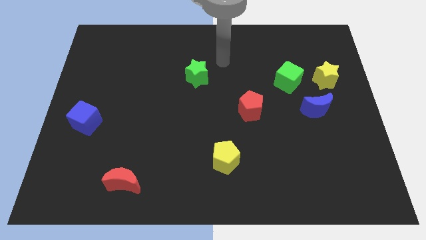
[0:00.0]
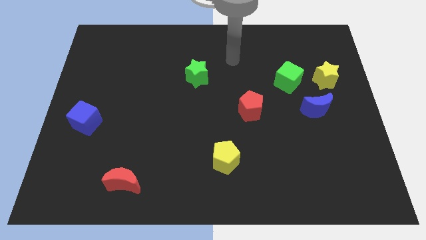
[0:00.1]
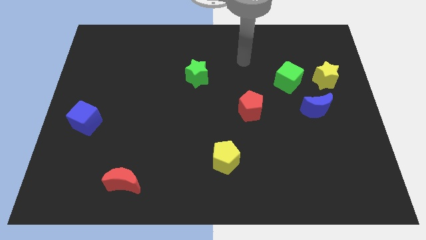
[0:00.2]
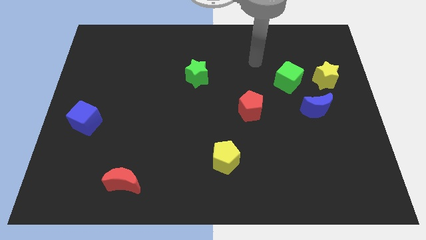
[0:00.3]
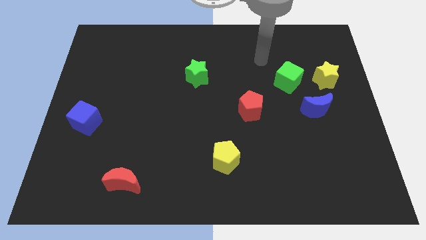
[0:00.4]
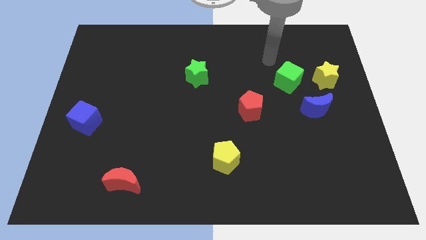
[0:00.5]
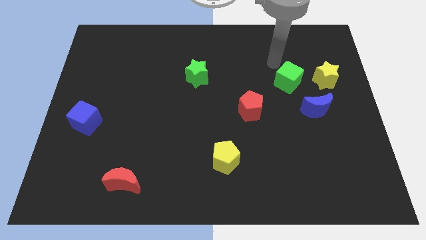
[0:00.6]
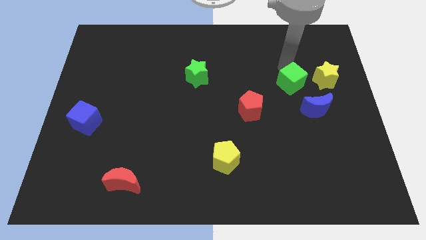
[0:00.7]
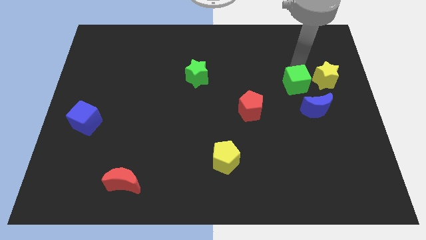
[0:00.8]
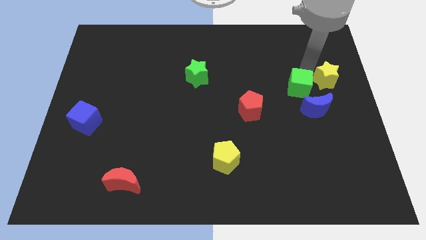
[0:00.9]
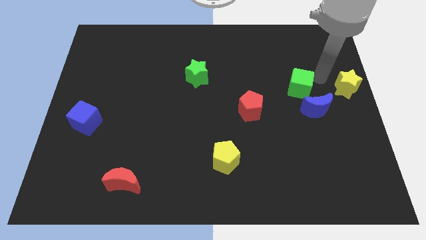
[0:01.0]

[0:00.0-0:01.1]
separate the green cube from the yellow star

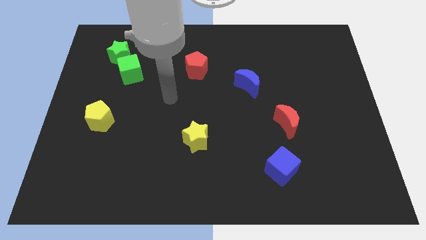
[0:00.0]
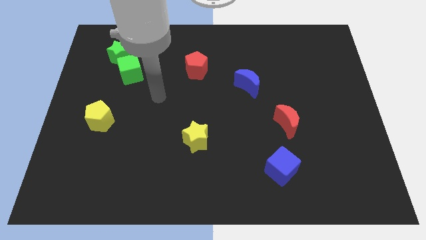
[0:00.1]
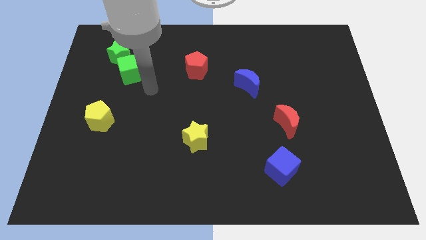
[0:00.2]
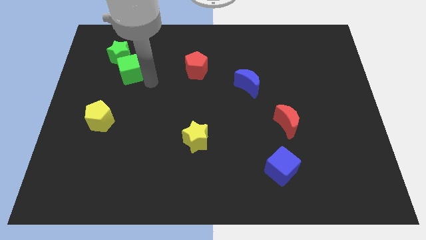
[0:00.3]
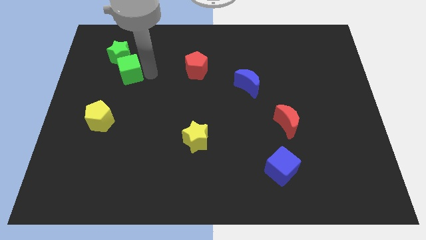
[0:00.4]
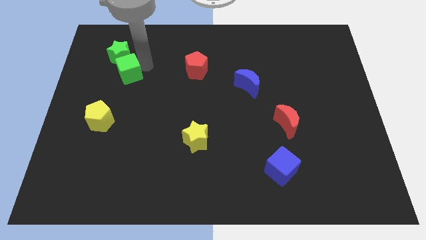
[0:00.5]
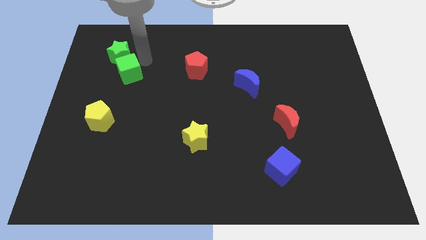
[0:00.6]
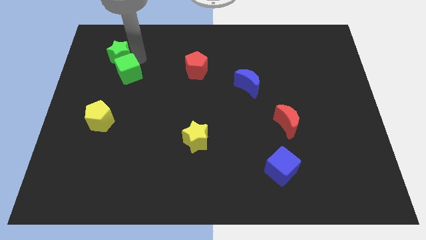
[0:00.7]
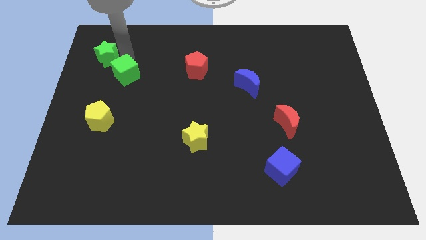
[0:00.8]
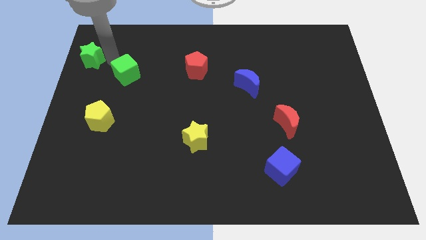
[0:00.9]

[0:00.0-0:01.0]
separate the green cube from the green star

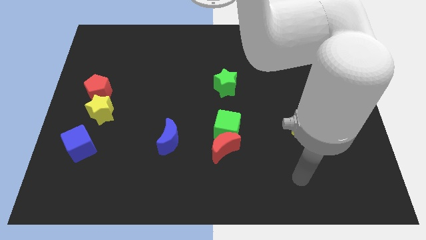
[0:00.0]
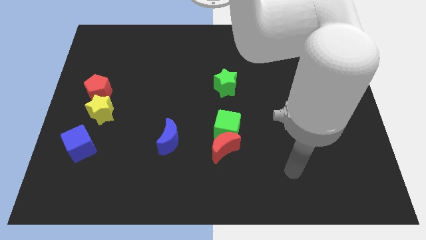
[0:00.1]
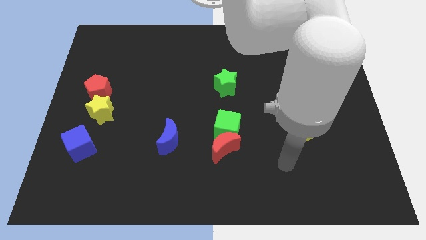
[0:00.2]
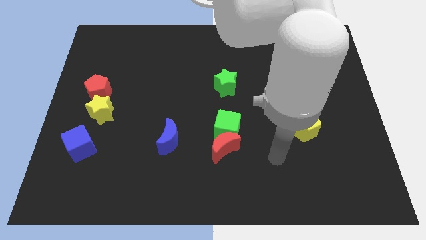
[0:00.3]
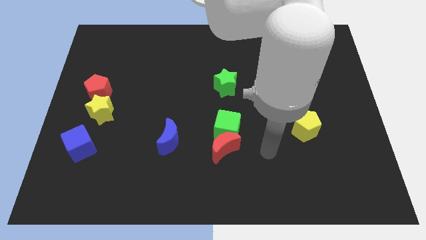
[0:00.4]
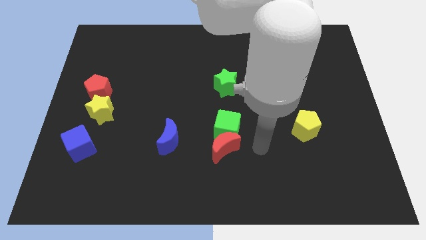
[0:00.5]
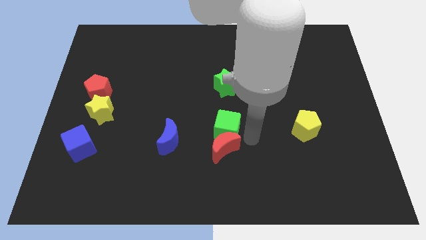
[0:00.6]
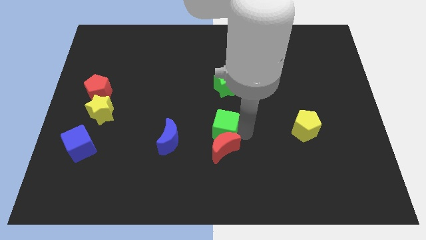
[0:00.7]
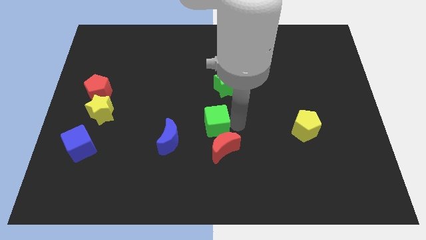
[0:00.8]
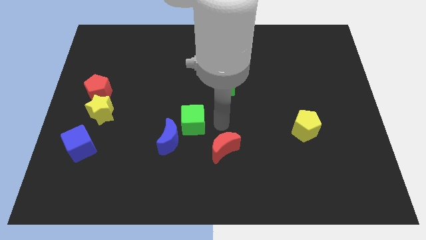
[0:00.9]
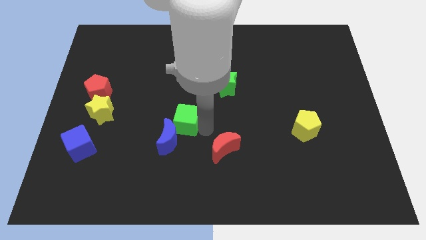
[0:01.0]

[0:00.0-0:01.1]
separate the red moon from the green cube

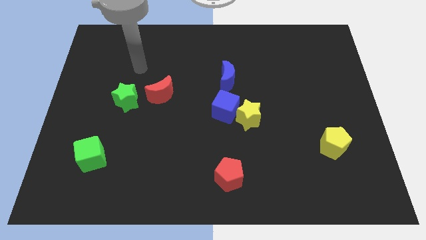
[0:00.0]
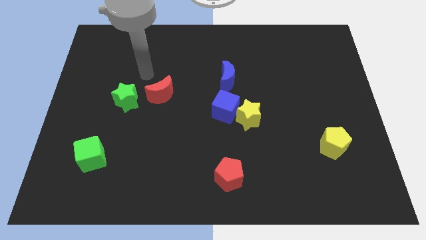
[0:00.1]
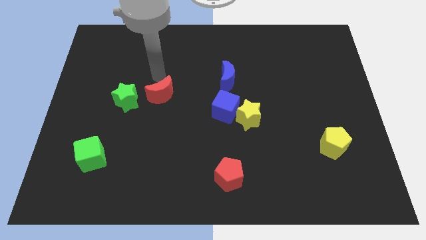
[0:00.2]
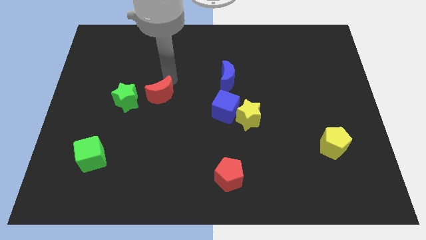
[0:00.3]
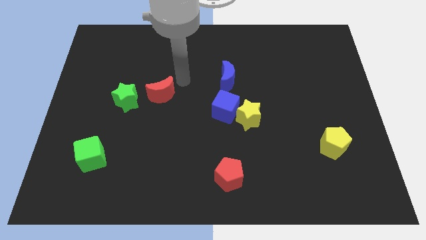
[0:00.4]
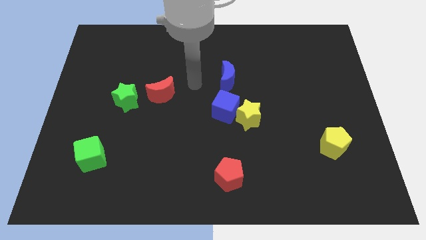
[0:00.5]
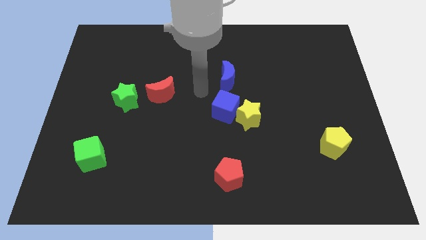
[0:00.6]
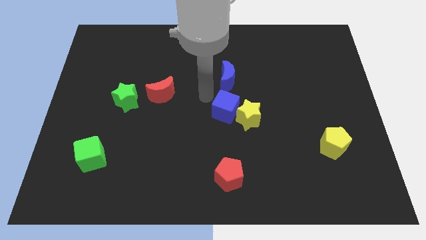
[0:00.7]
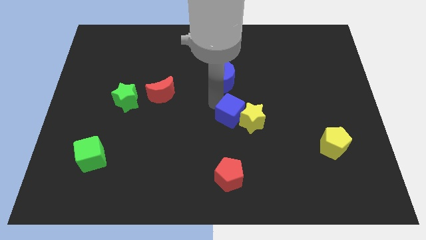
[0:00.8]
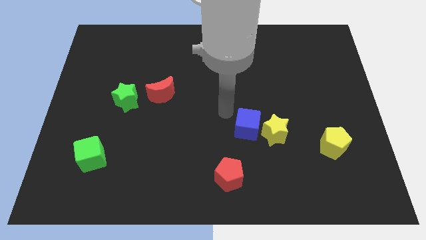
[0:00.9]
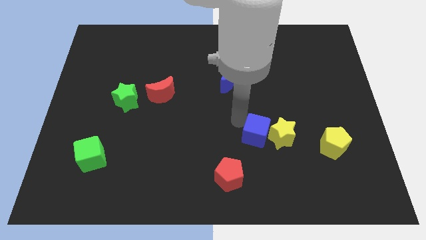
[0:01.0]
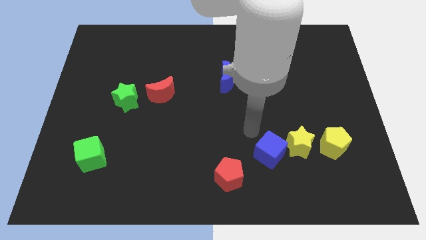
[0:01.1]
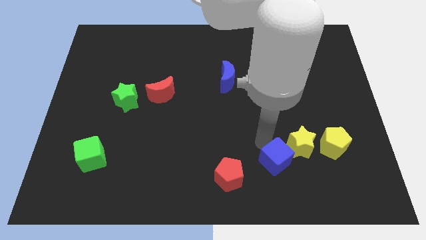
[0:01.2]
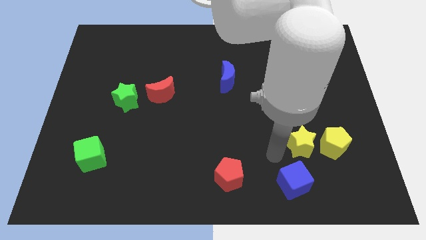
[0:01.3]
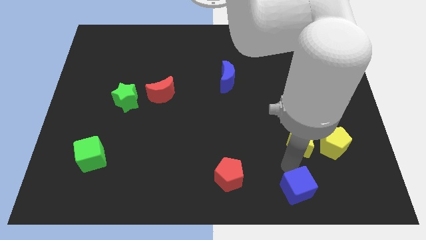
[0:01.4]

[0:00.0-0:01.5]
move the yellow star away from the blue cube

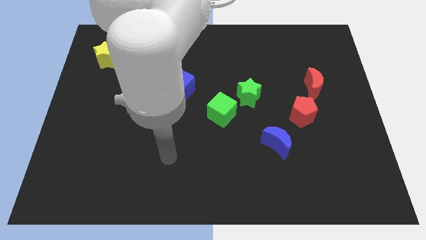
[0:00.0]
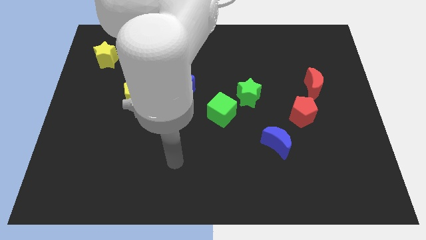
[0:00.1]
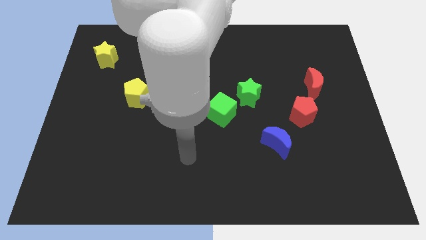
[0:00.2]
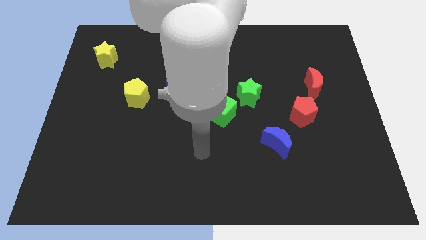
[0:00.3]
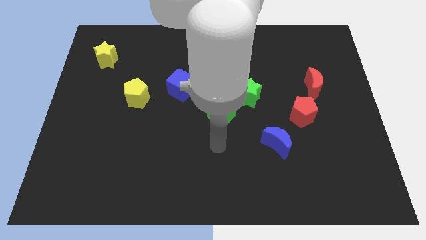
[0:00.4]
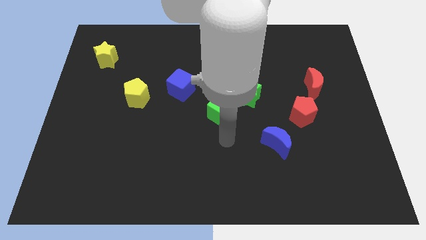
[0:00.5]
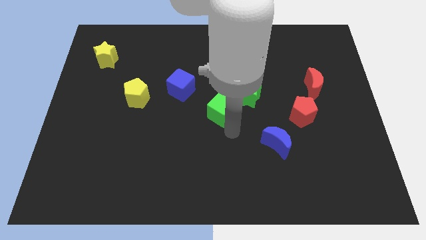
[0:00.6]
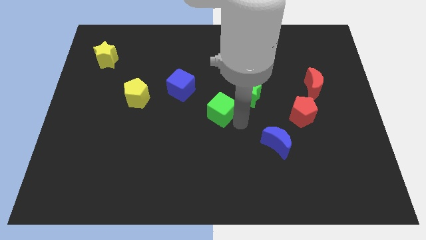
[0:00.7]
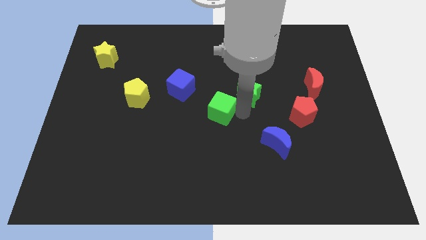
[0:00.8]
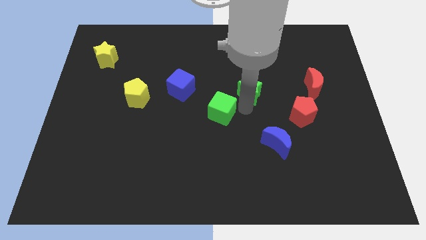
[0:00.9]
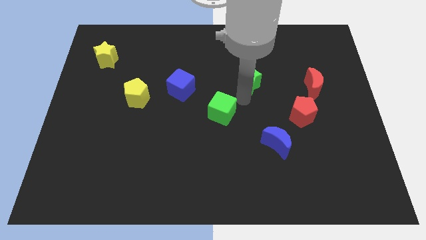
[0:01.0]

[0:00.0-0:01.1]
pull the green cube apart from the green star

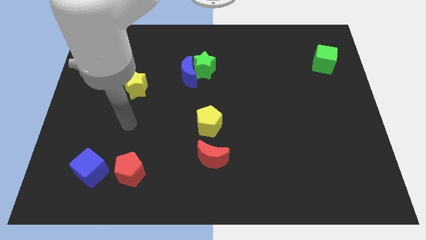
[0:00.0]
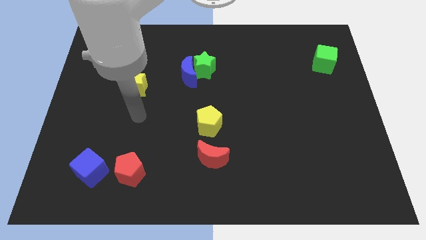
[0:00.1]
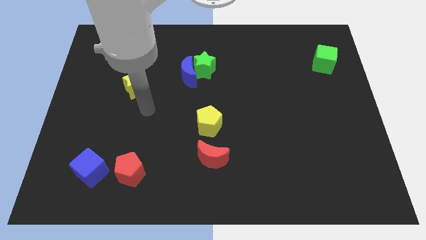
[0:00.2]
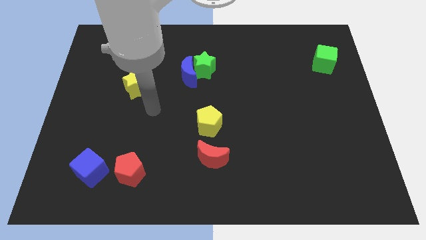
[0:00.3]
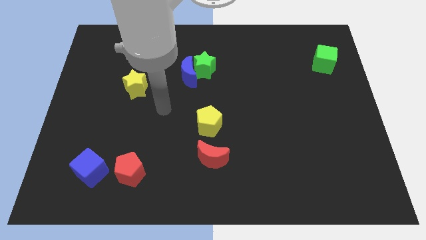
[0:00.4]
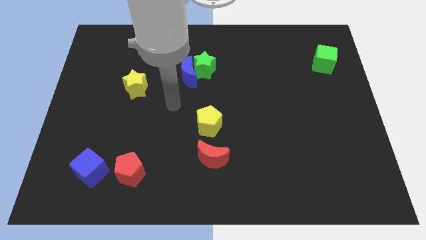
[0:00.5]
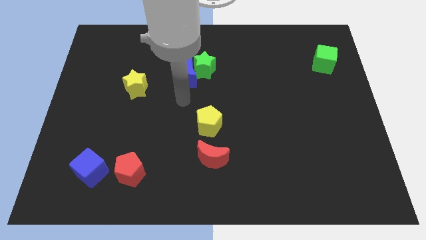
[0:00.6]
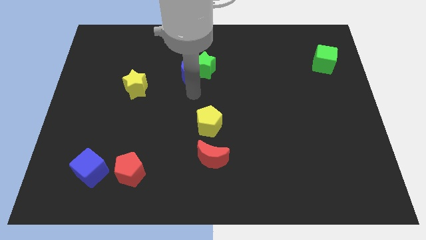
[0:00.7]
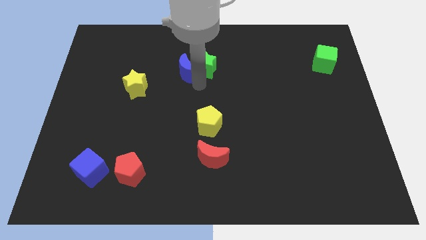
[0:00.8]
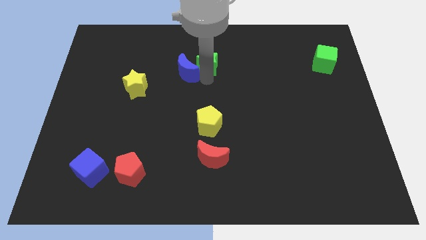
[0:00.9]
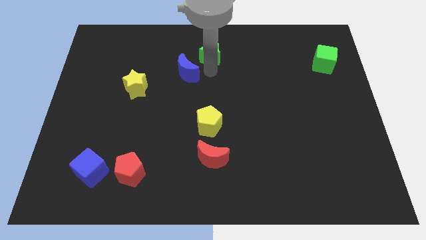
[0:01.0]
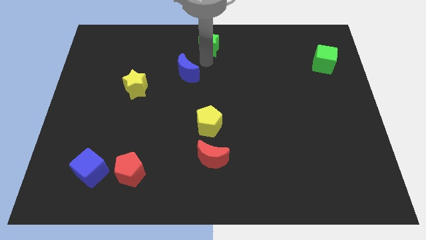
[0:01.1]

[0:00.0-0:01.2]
pull the blue moon apart from the green star

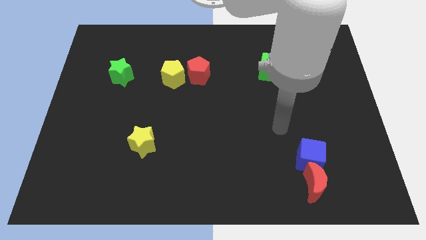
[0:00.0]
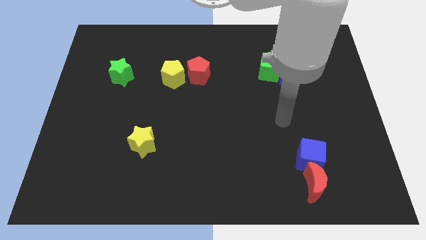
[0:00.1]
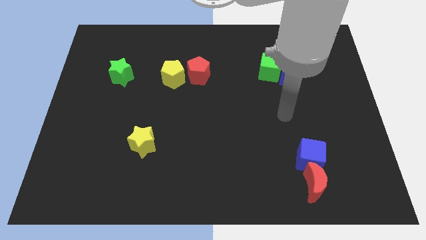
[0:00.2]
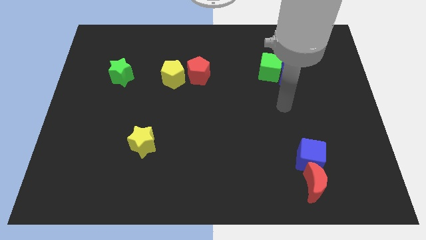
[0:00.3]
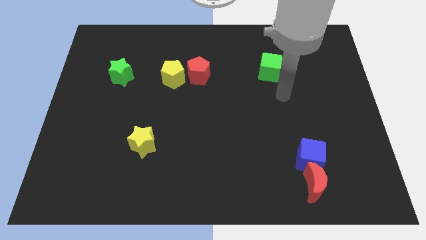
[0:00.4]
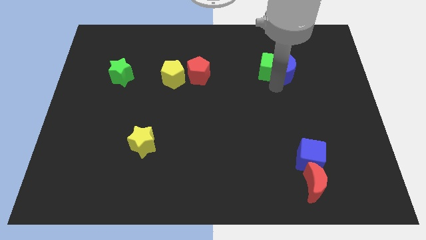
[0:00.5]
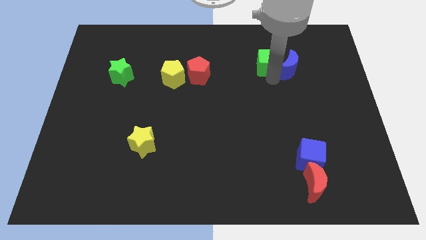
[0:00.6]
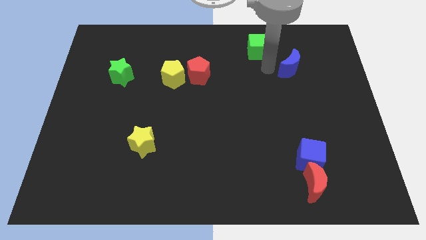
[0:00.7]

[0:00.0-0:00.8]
move the blue moon away from the green cube

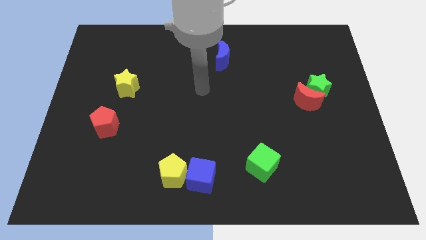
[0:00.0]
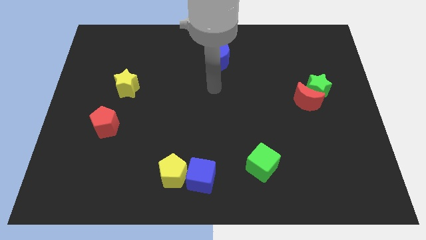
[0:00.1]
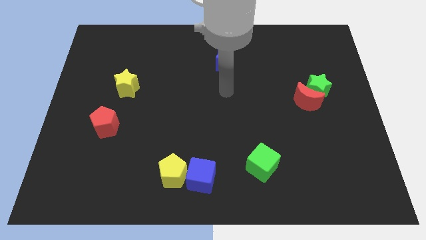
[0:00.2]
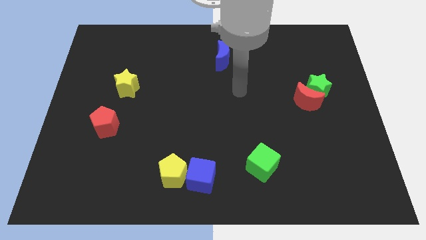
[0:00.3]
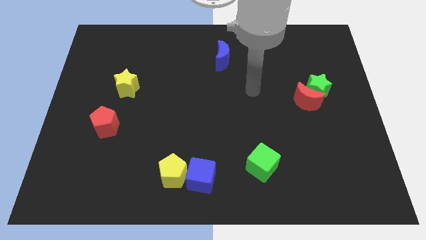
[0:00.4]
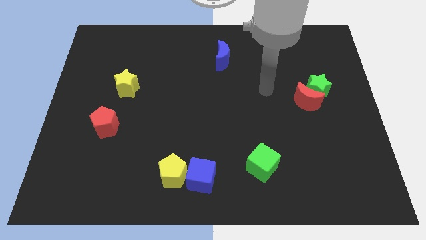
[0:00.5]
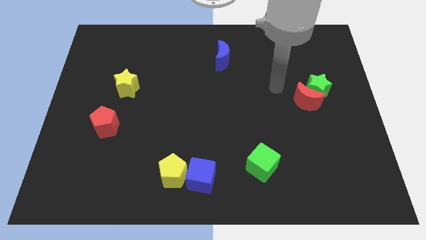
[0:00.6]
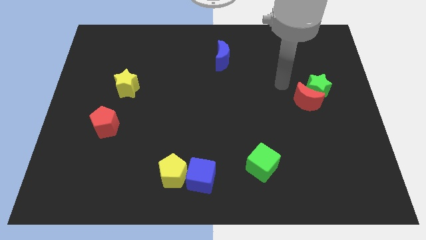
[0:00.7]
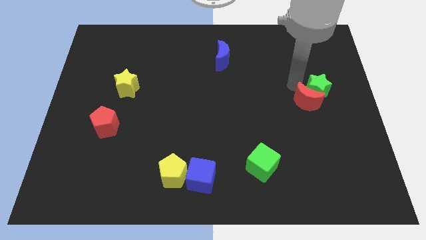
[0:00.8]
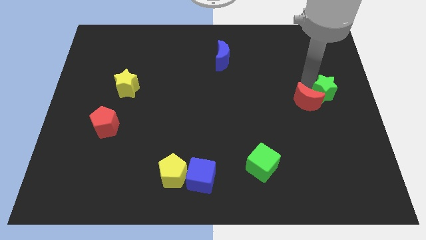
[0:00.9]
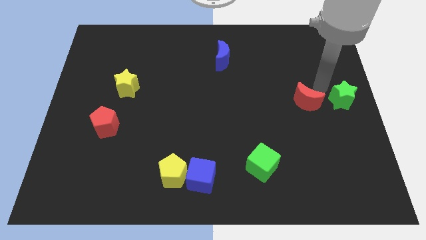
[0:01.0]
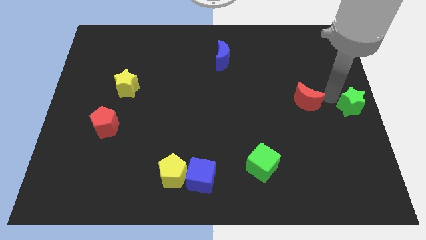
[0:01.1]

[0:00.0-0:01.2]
pull the red moon apart from the green star

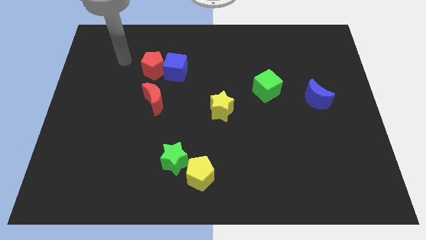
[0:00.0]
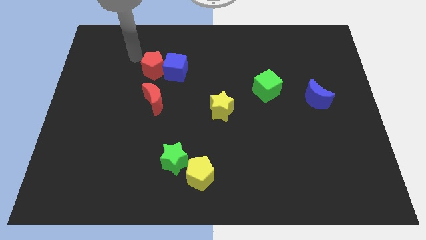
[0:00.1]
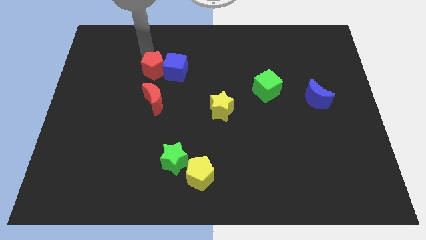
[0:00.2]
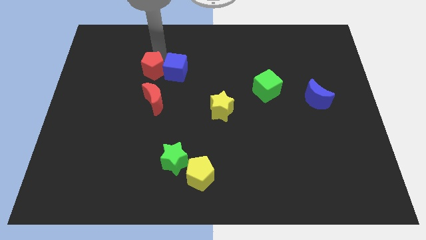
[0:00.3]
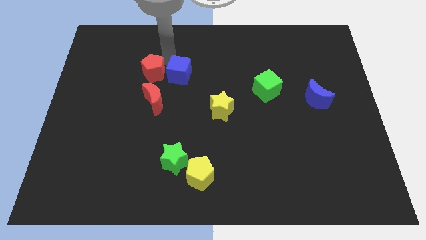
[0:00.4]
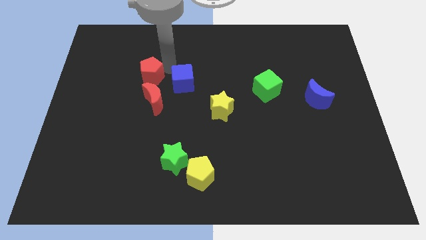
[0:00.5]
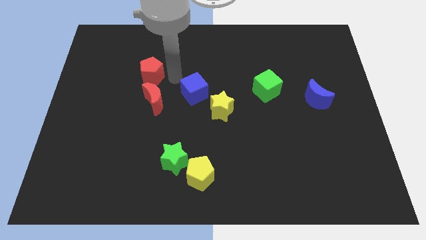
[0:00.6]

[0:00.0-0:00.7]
move the red pentagon away from the blue cube
